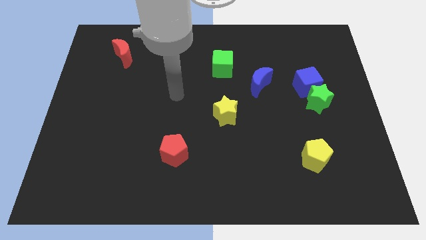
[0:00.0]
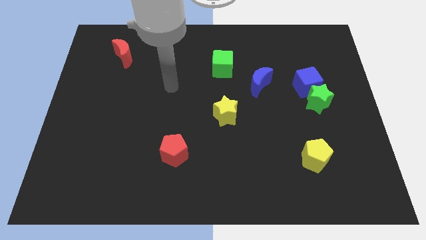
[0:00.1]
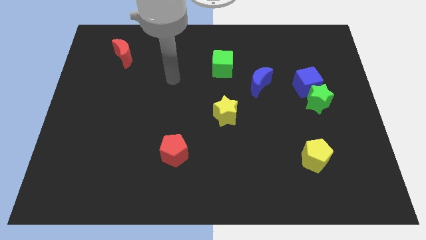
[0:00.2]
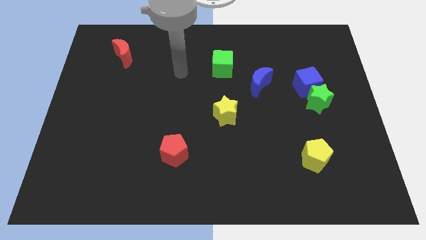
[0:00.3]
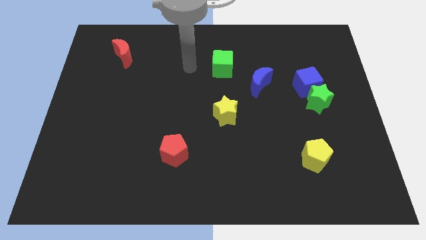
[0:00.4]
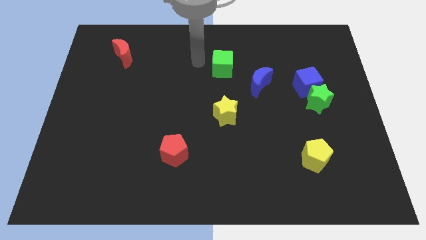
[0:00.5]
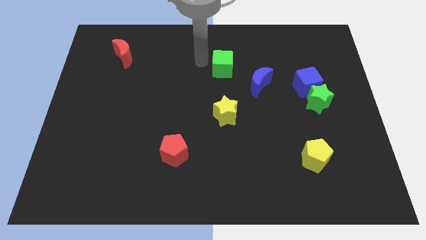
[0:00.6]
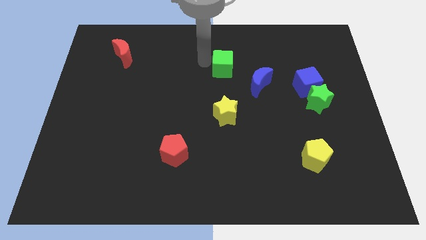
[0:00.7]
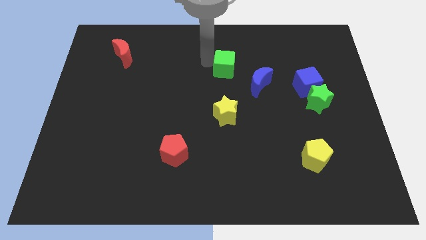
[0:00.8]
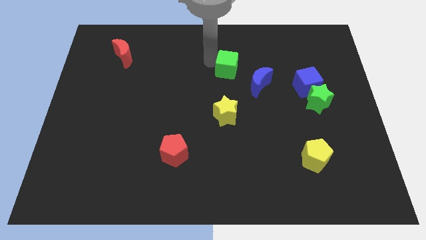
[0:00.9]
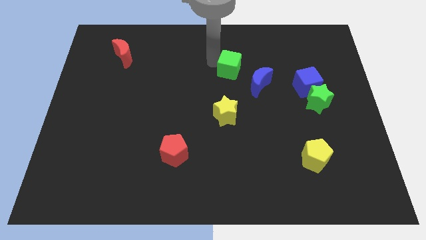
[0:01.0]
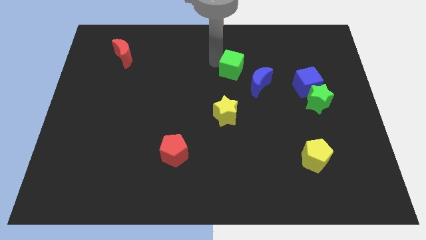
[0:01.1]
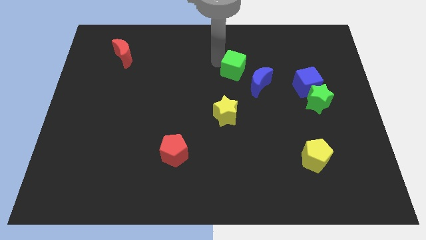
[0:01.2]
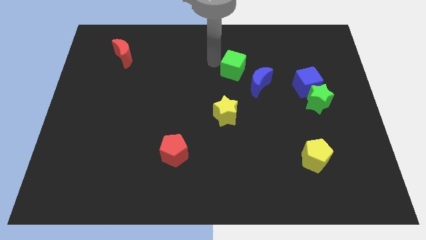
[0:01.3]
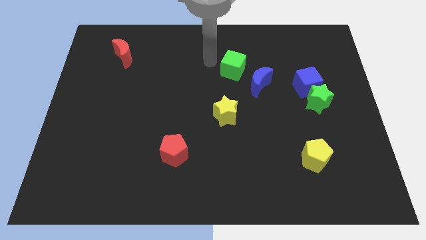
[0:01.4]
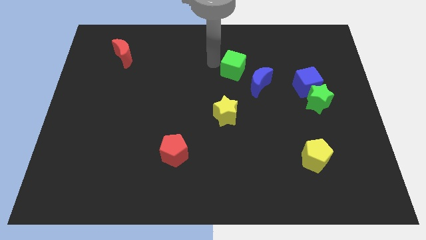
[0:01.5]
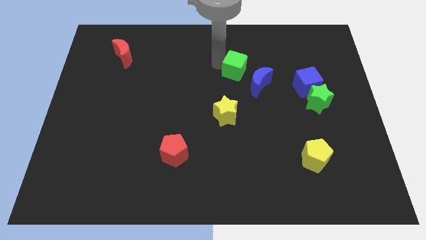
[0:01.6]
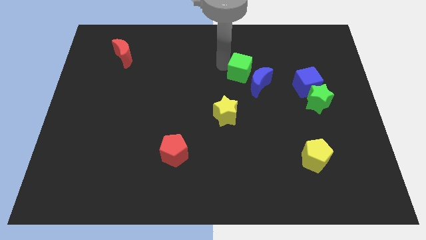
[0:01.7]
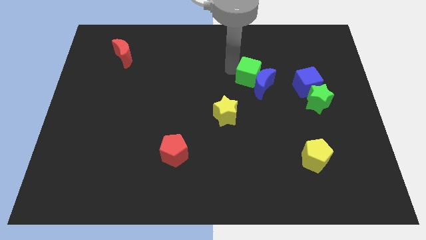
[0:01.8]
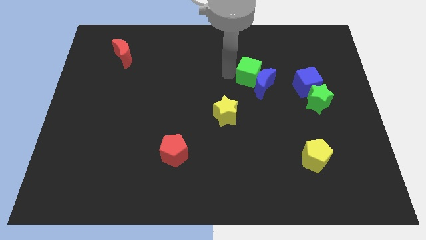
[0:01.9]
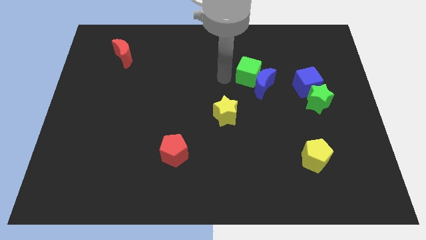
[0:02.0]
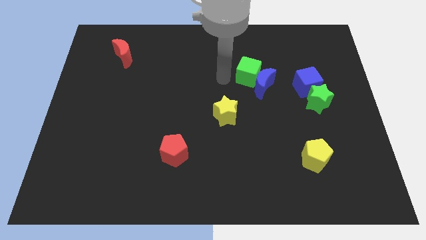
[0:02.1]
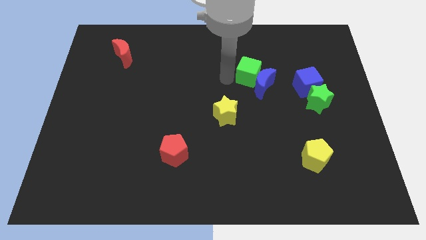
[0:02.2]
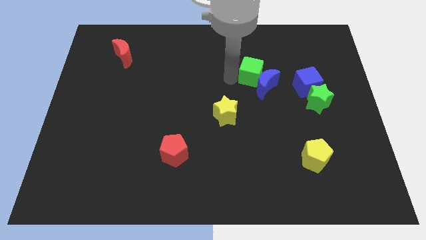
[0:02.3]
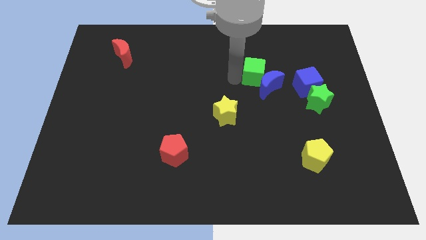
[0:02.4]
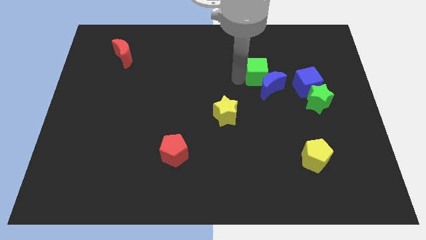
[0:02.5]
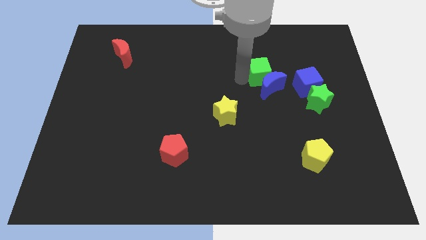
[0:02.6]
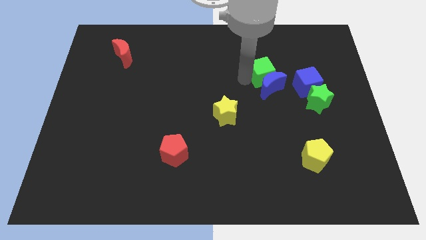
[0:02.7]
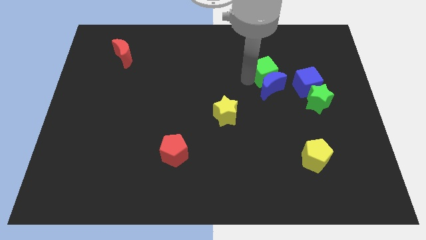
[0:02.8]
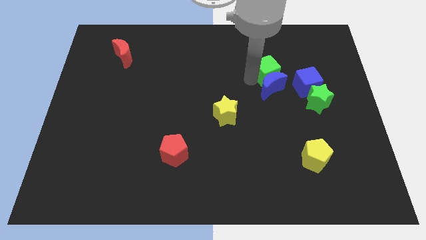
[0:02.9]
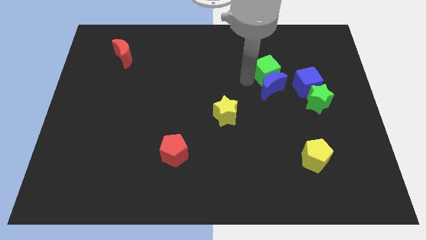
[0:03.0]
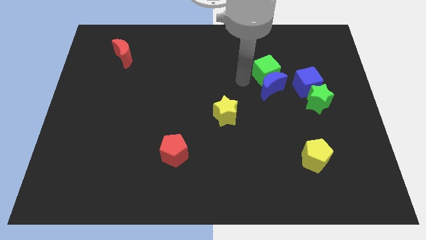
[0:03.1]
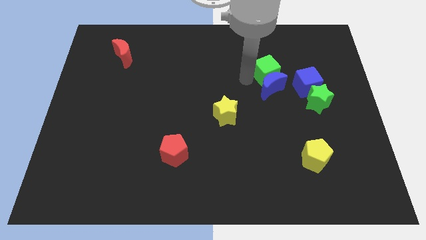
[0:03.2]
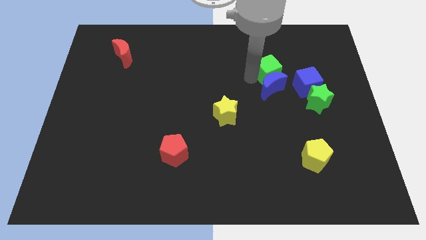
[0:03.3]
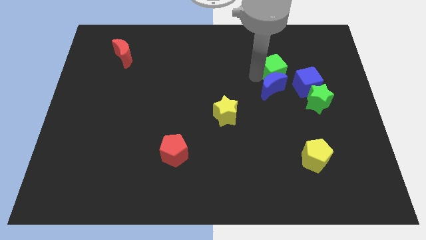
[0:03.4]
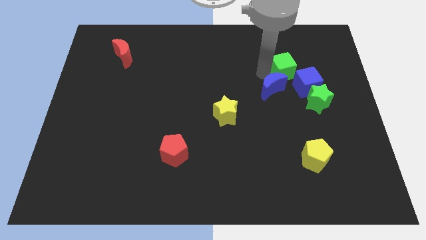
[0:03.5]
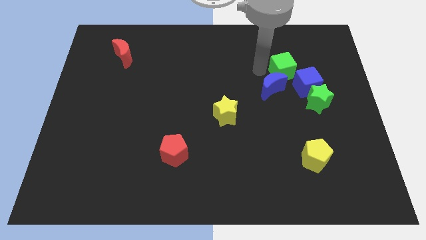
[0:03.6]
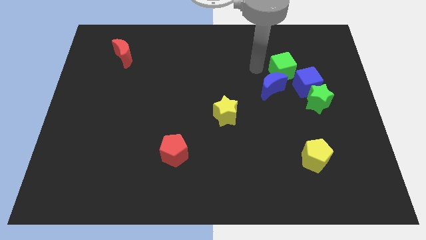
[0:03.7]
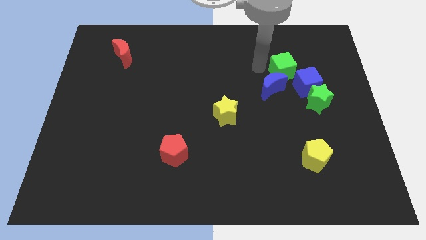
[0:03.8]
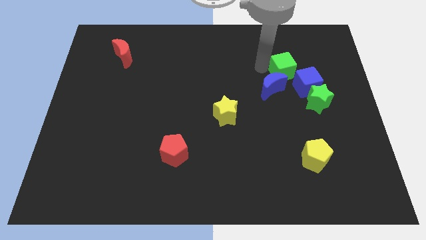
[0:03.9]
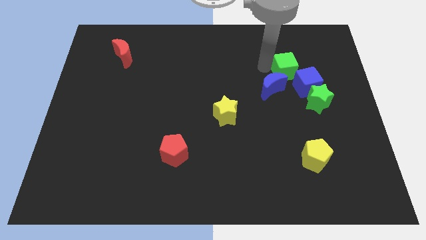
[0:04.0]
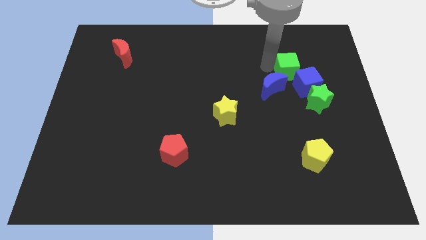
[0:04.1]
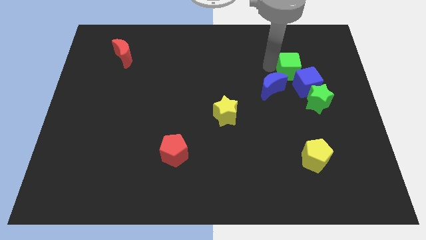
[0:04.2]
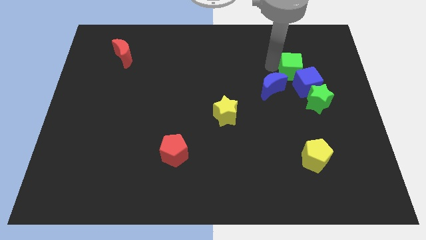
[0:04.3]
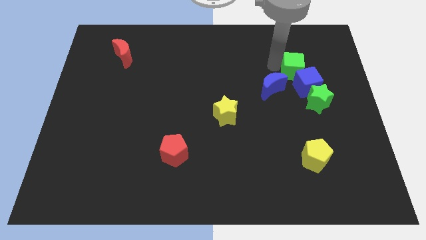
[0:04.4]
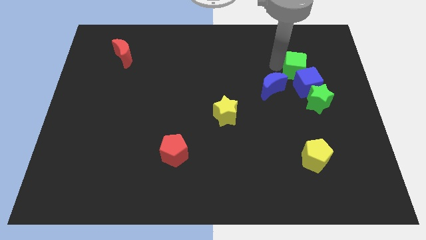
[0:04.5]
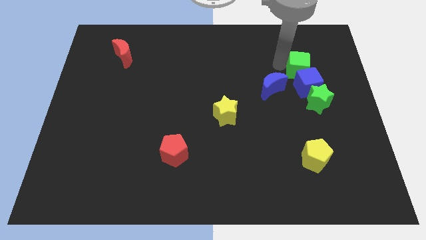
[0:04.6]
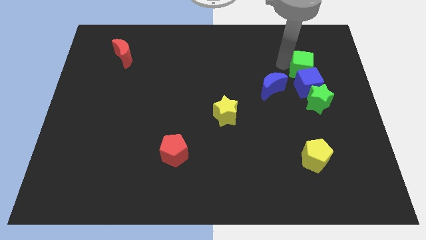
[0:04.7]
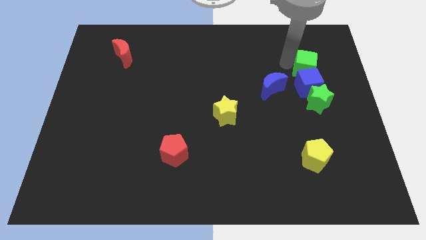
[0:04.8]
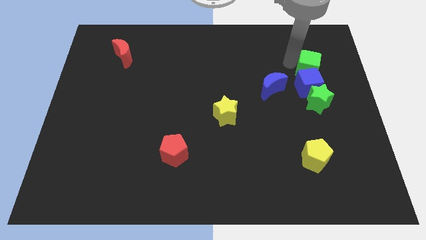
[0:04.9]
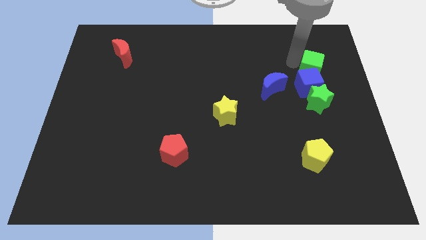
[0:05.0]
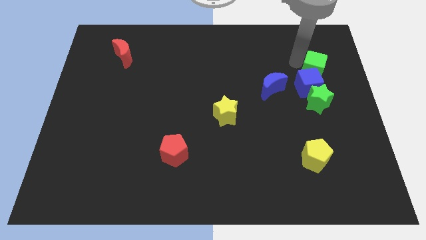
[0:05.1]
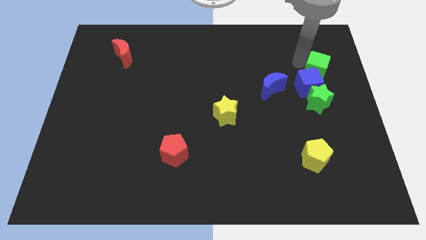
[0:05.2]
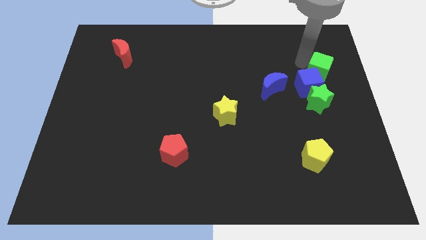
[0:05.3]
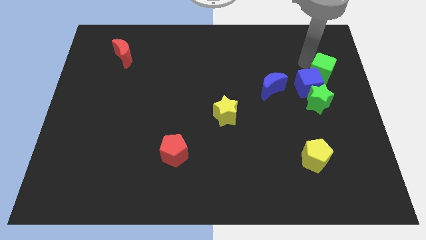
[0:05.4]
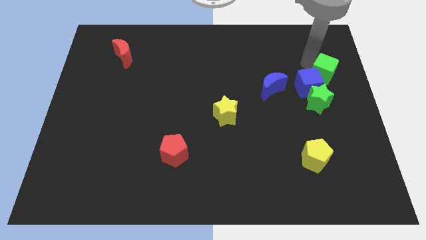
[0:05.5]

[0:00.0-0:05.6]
move the green cube to the right side

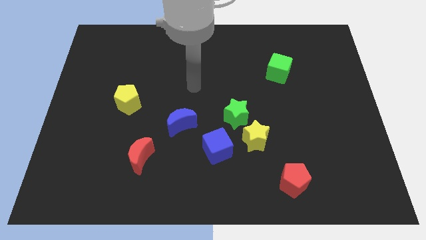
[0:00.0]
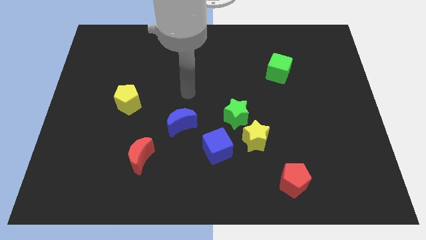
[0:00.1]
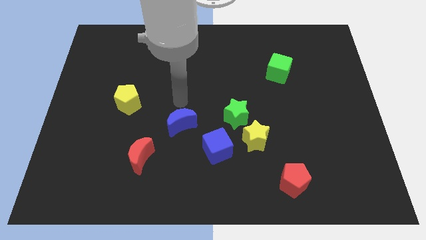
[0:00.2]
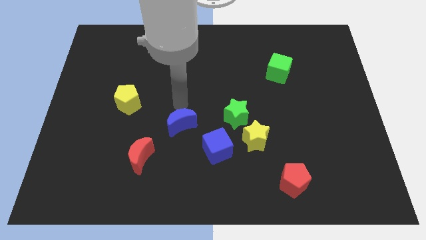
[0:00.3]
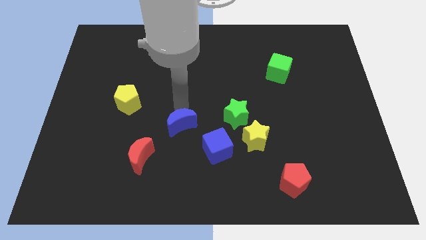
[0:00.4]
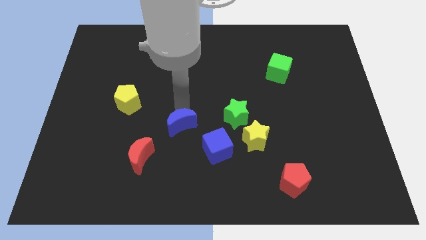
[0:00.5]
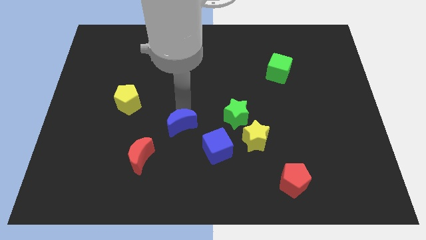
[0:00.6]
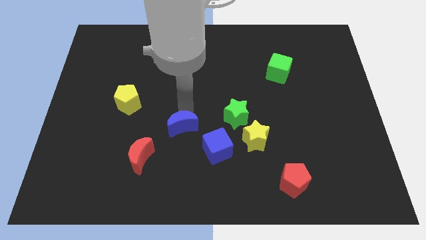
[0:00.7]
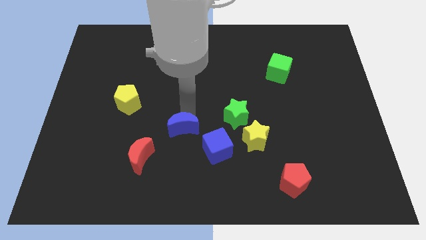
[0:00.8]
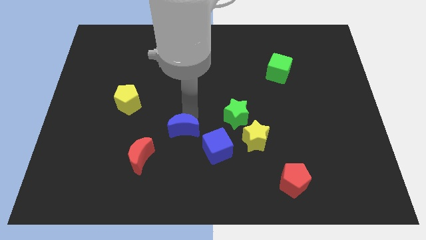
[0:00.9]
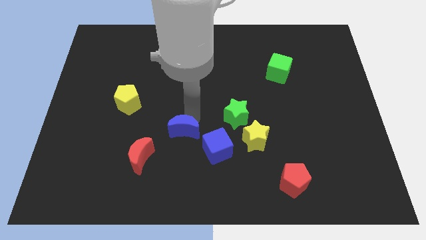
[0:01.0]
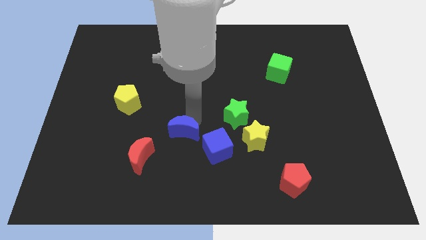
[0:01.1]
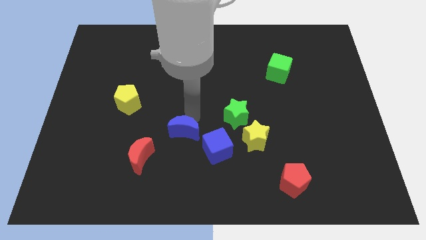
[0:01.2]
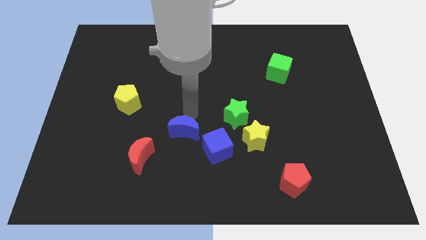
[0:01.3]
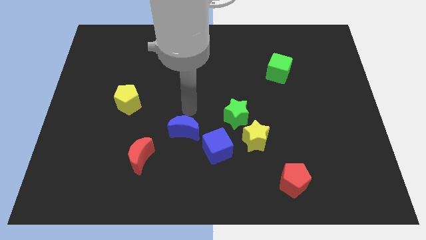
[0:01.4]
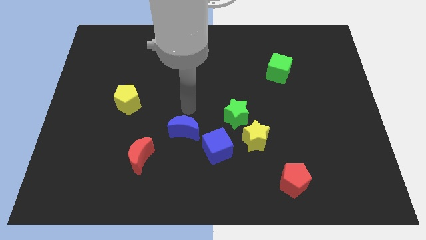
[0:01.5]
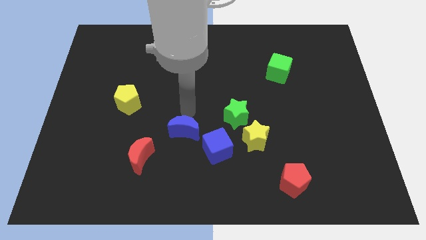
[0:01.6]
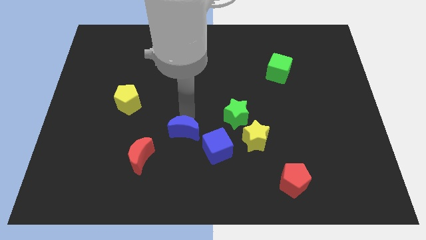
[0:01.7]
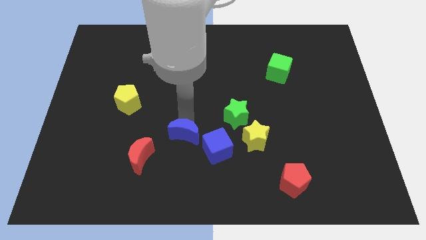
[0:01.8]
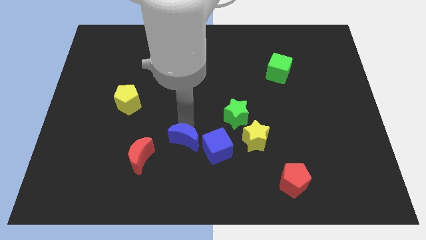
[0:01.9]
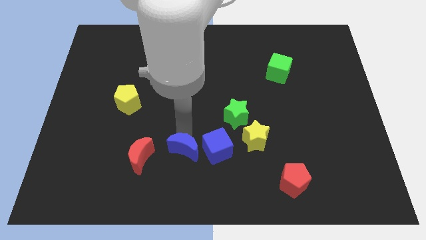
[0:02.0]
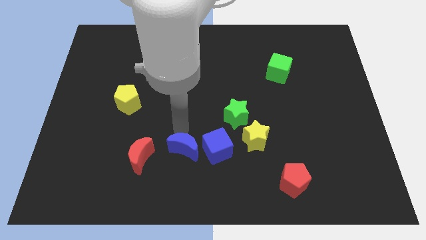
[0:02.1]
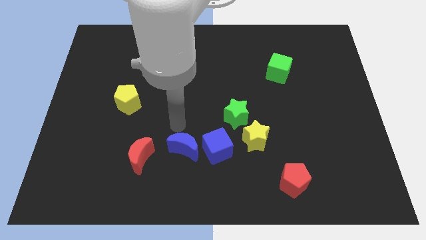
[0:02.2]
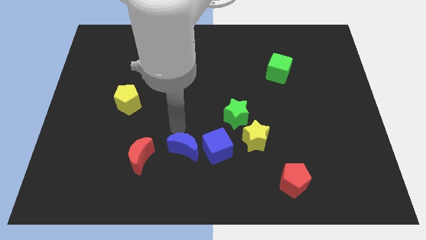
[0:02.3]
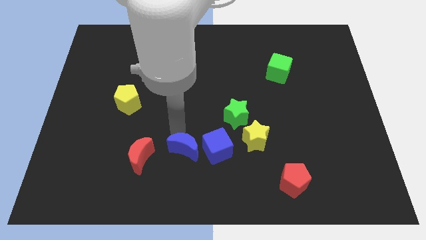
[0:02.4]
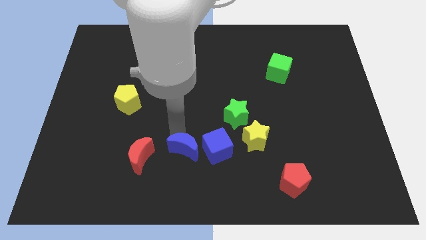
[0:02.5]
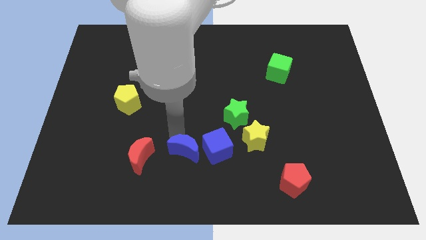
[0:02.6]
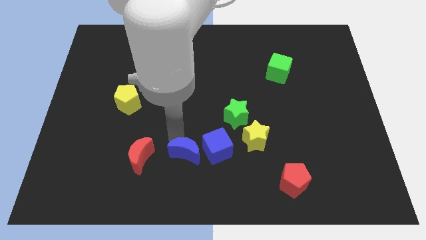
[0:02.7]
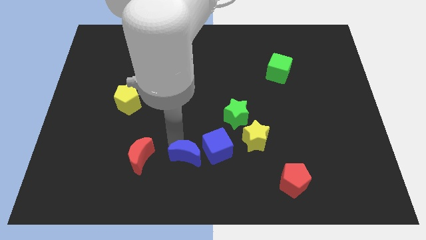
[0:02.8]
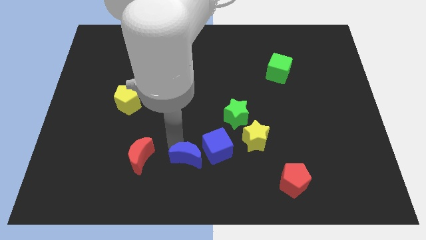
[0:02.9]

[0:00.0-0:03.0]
slide the blue moon to the bottom side
